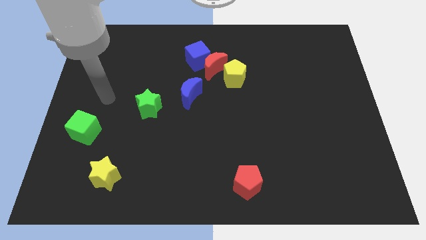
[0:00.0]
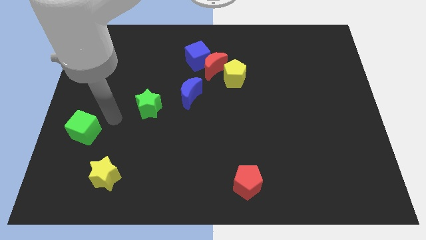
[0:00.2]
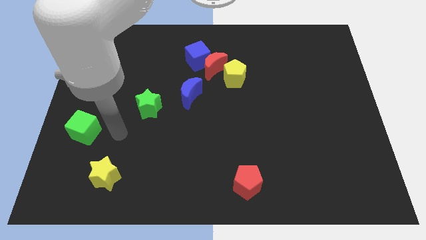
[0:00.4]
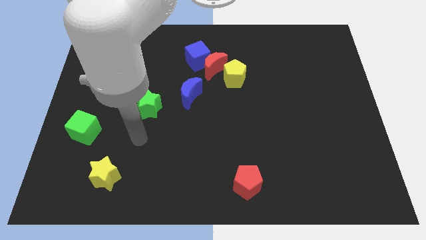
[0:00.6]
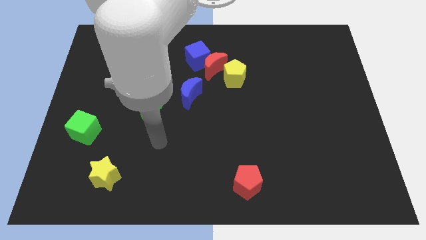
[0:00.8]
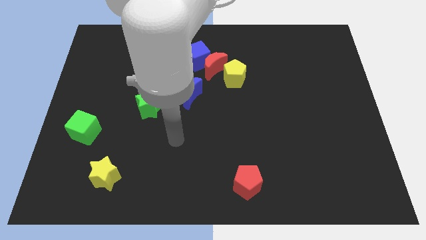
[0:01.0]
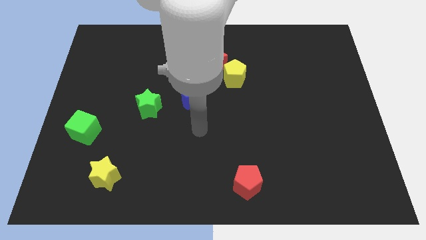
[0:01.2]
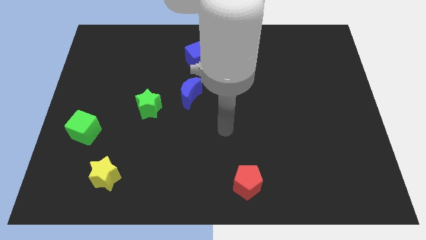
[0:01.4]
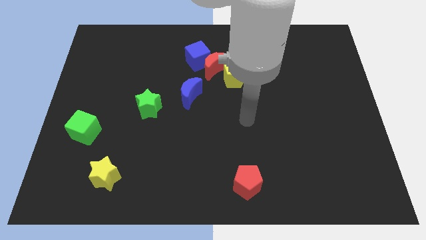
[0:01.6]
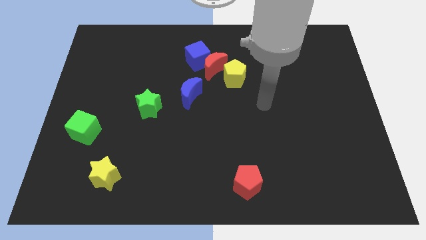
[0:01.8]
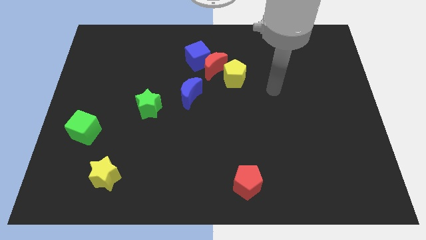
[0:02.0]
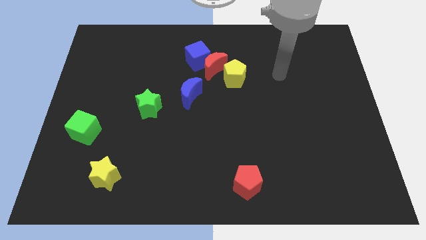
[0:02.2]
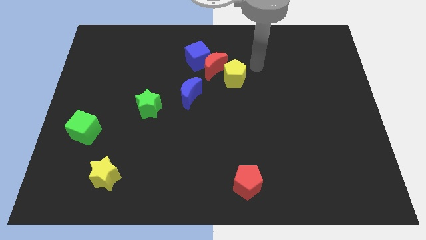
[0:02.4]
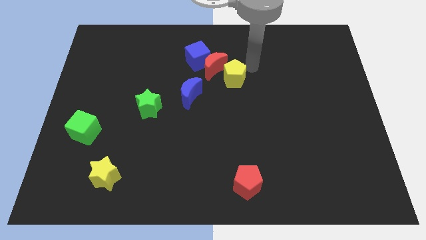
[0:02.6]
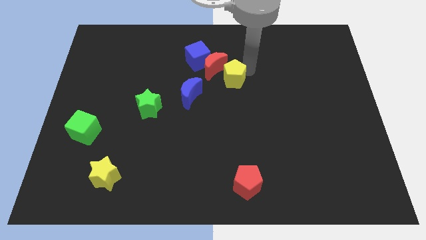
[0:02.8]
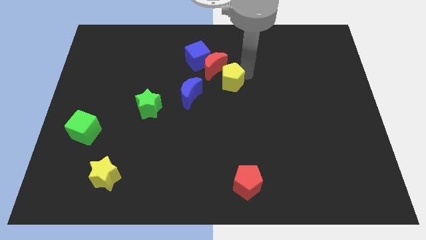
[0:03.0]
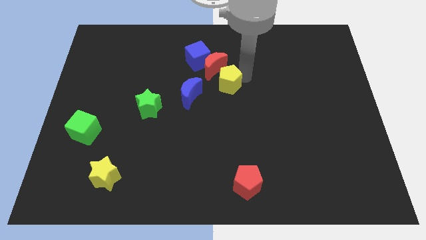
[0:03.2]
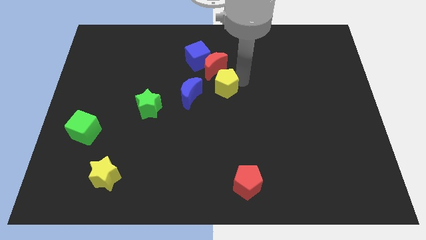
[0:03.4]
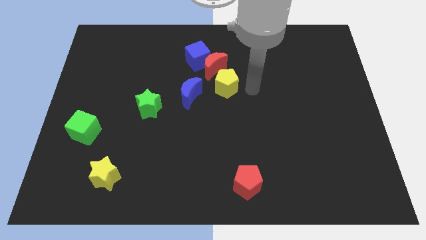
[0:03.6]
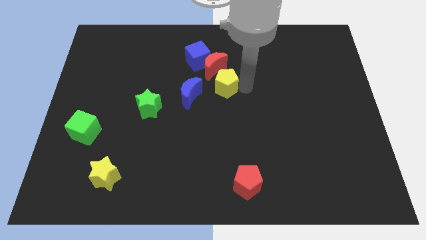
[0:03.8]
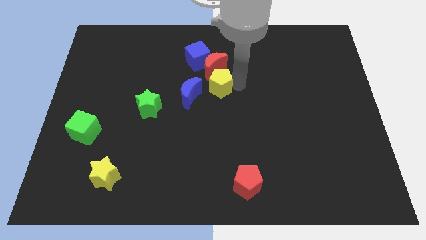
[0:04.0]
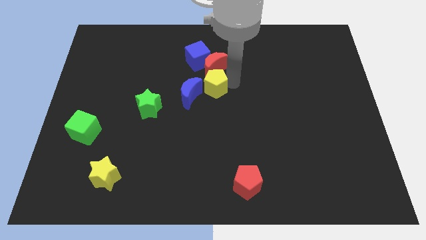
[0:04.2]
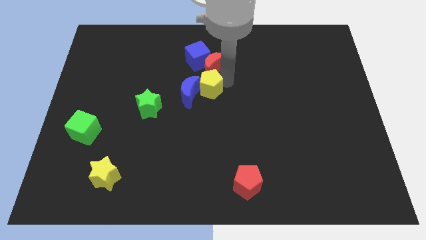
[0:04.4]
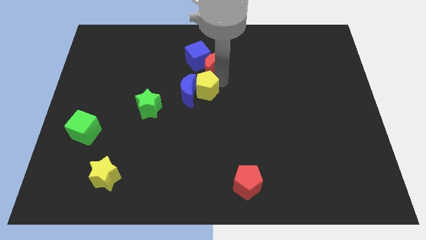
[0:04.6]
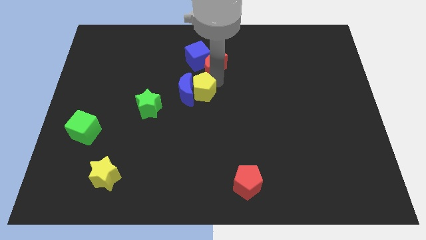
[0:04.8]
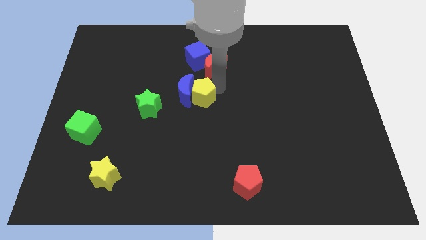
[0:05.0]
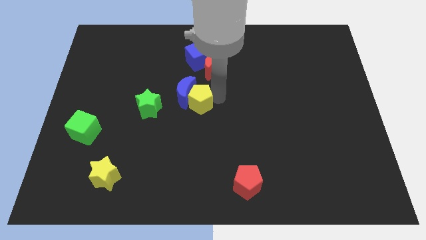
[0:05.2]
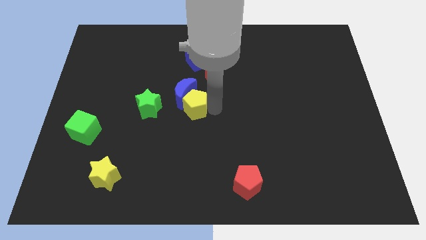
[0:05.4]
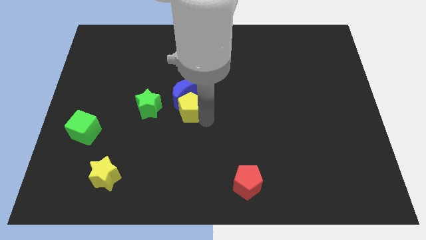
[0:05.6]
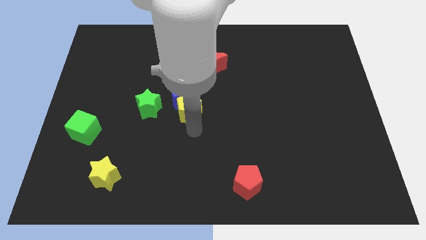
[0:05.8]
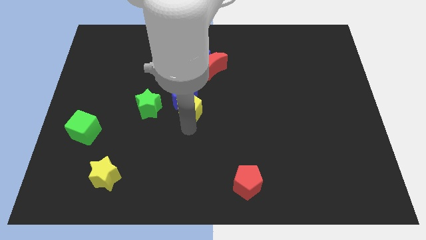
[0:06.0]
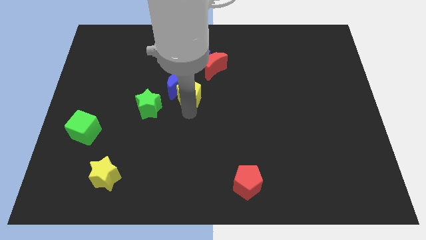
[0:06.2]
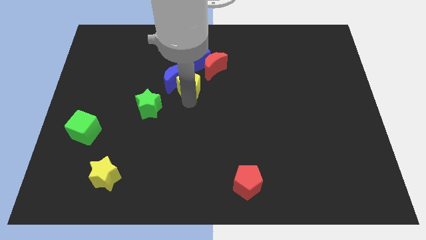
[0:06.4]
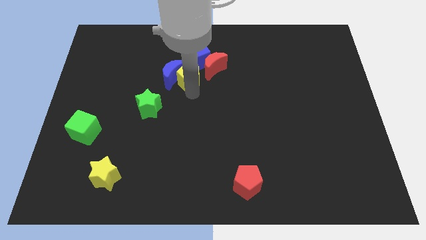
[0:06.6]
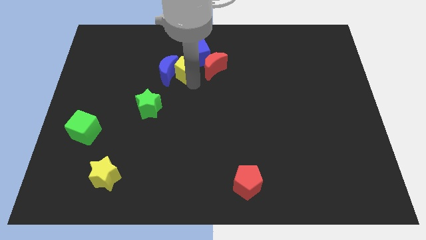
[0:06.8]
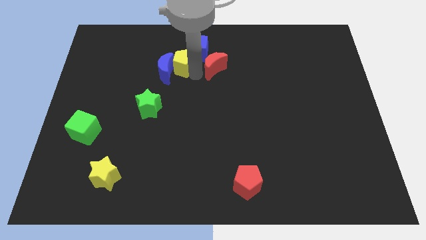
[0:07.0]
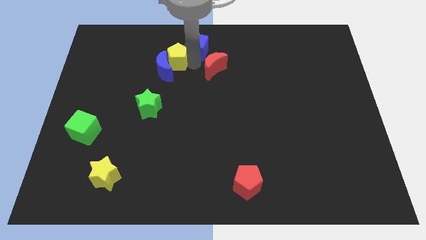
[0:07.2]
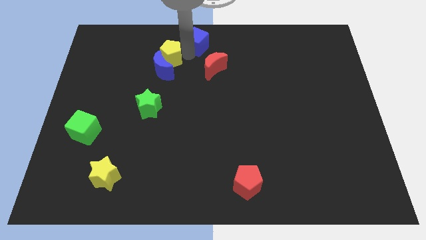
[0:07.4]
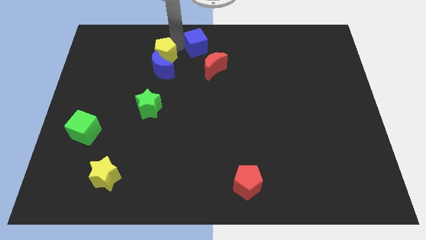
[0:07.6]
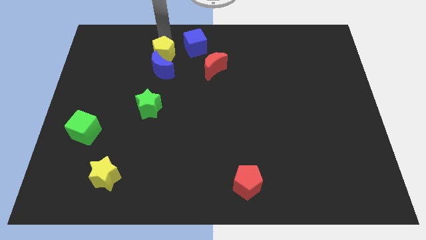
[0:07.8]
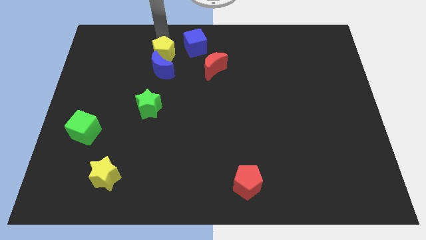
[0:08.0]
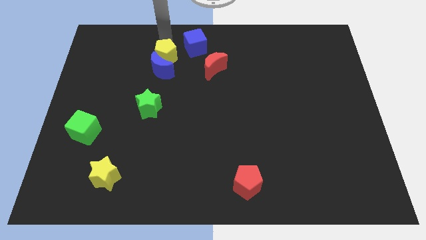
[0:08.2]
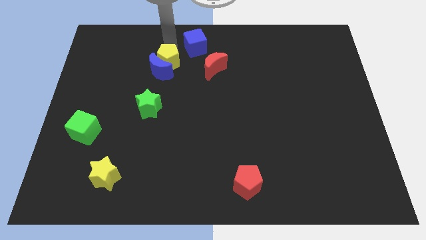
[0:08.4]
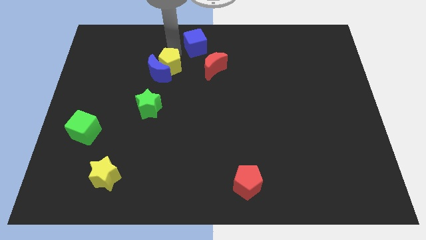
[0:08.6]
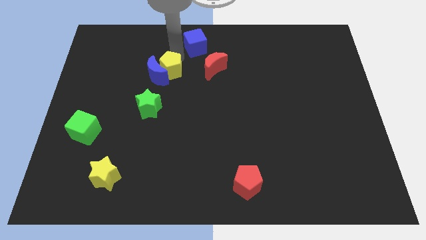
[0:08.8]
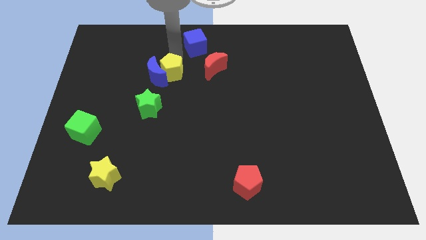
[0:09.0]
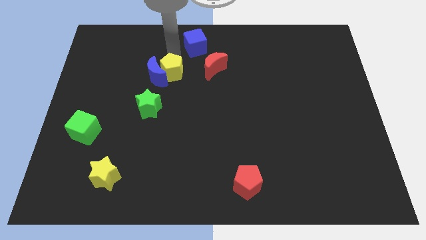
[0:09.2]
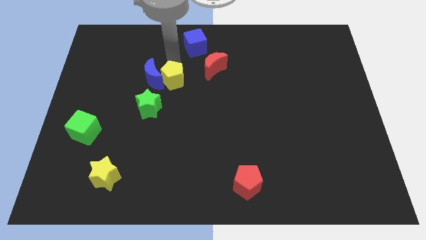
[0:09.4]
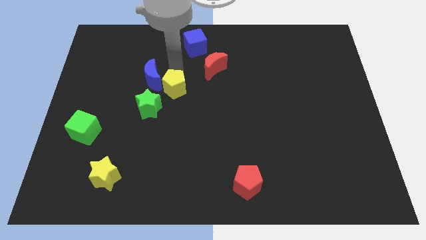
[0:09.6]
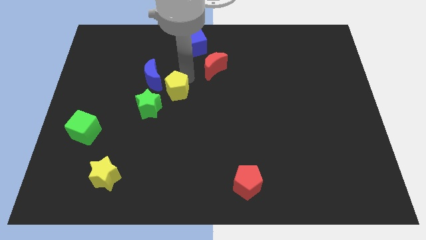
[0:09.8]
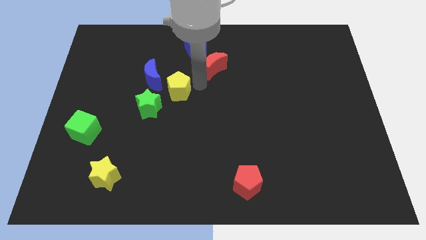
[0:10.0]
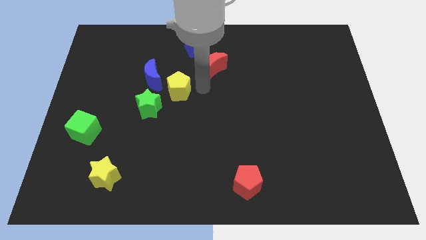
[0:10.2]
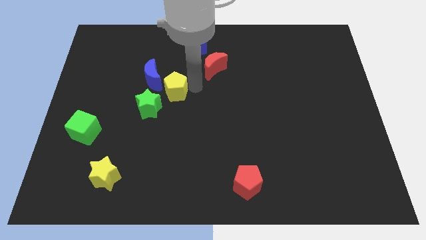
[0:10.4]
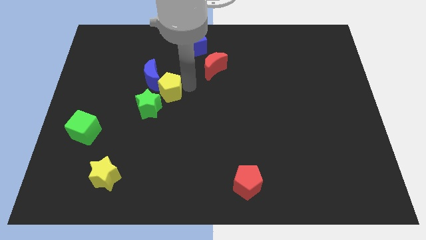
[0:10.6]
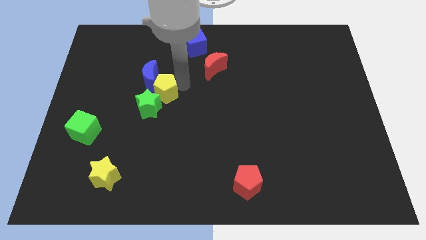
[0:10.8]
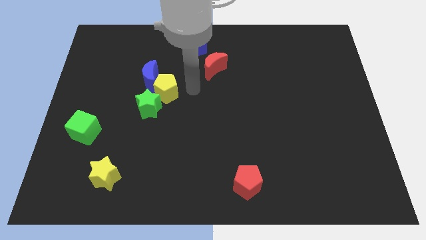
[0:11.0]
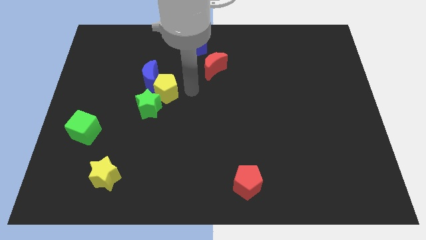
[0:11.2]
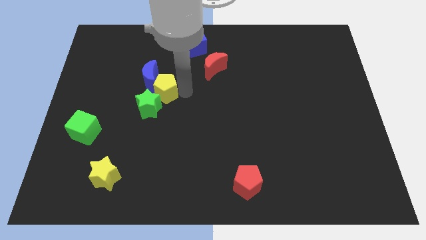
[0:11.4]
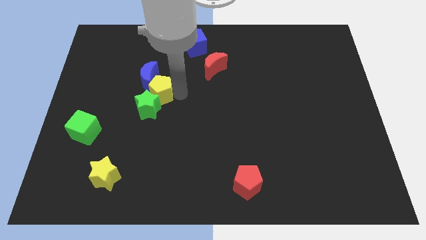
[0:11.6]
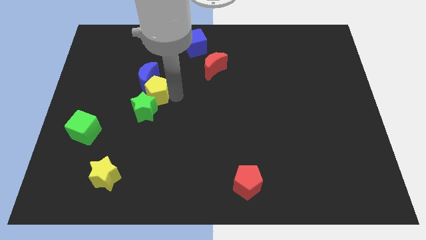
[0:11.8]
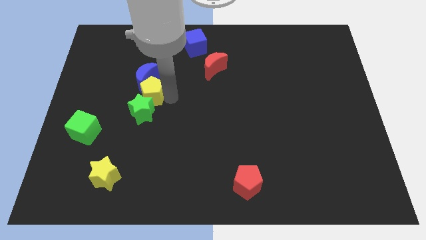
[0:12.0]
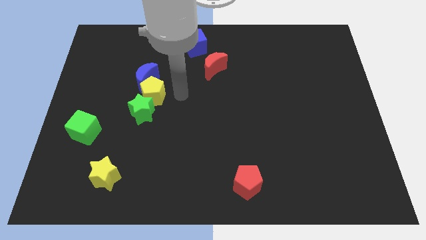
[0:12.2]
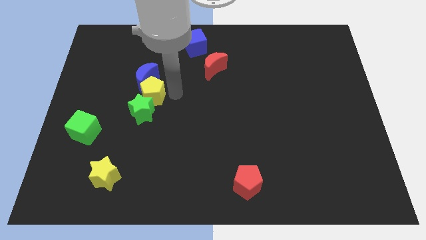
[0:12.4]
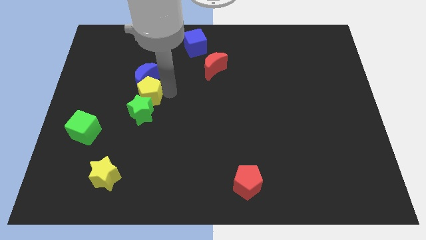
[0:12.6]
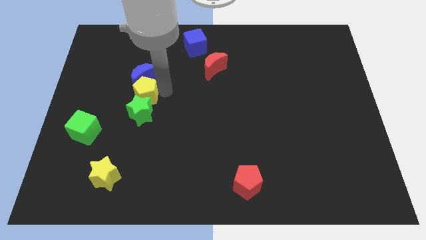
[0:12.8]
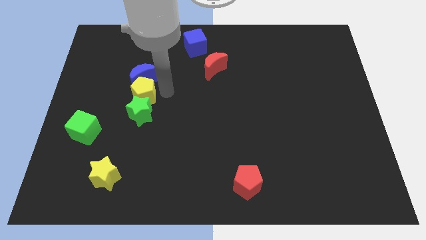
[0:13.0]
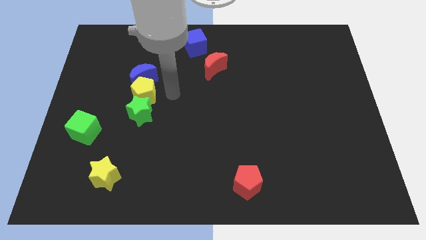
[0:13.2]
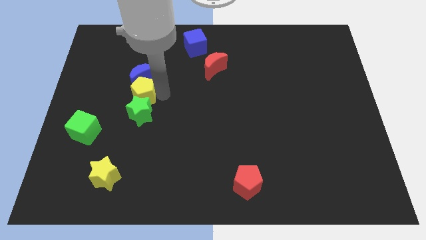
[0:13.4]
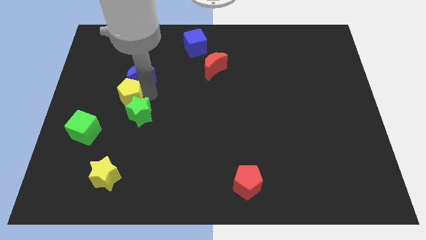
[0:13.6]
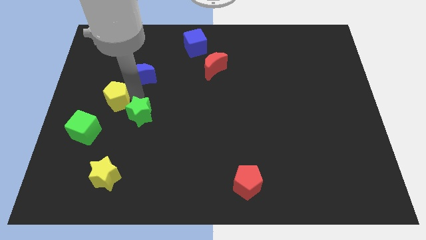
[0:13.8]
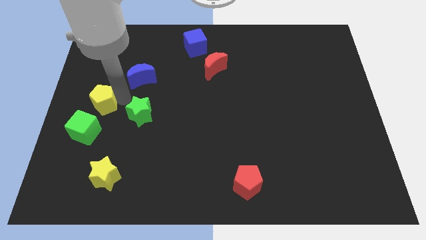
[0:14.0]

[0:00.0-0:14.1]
put the yellow pentagon to the center left
